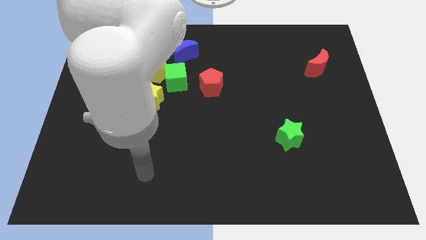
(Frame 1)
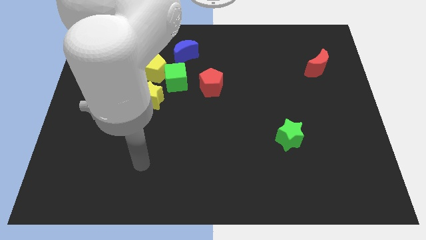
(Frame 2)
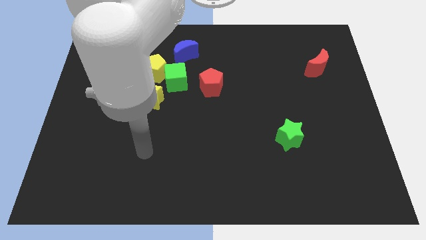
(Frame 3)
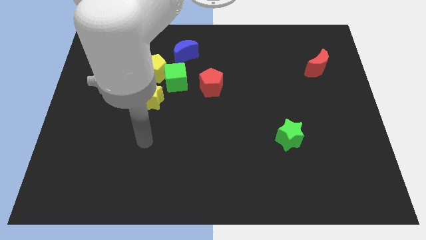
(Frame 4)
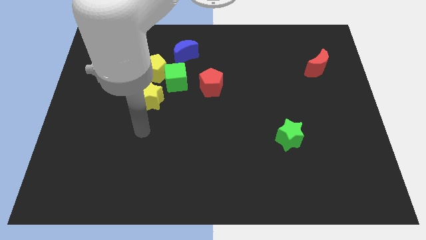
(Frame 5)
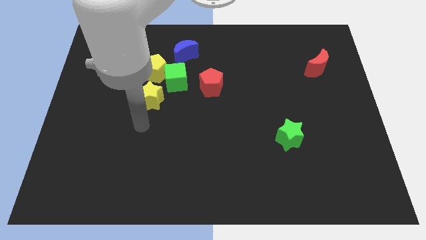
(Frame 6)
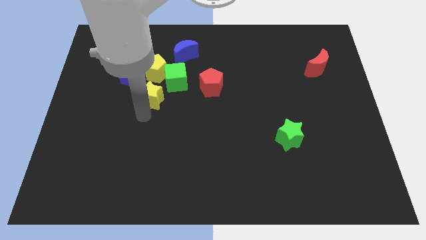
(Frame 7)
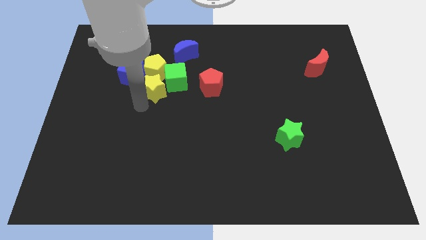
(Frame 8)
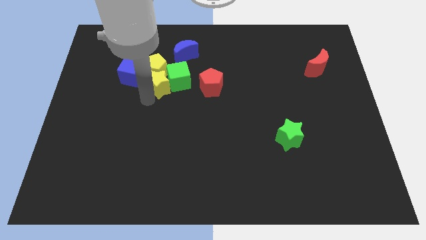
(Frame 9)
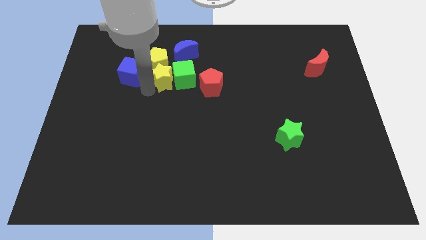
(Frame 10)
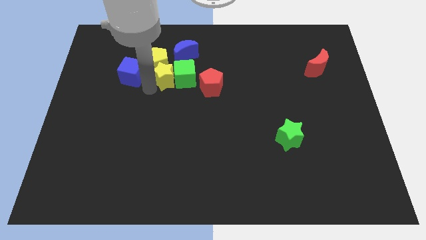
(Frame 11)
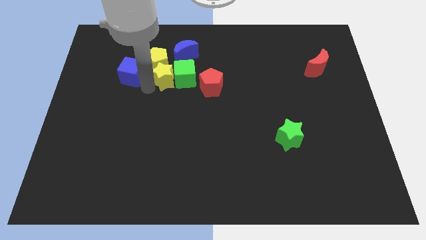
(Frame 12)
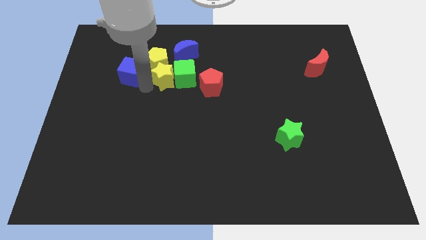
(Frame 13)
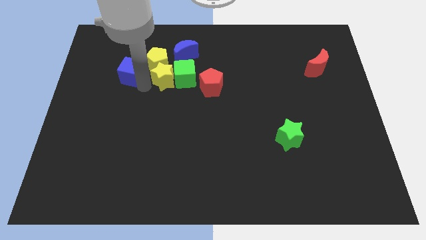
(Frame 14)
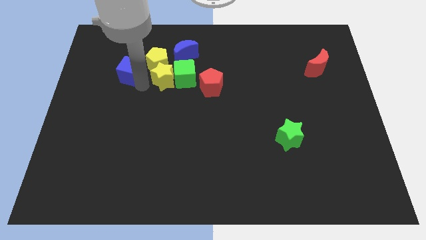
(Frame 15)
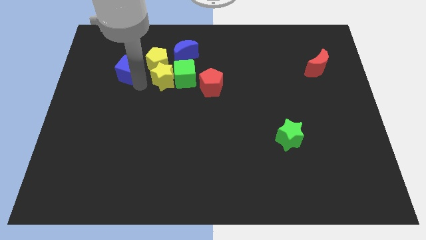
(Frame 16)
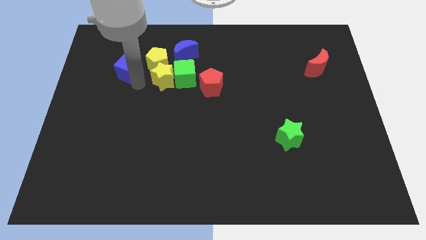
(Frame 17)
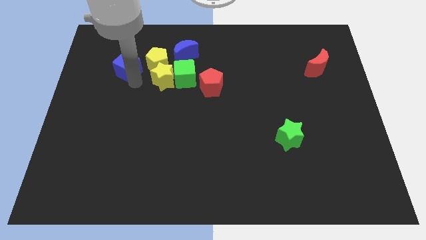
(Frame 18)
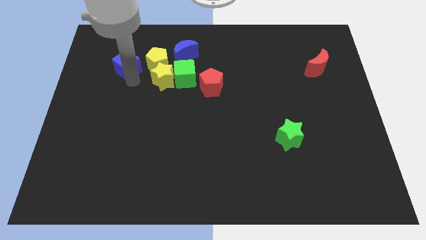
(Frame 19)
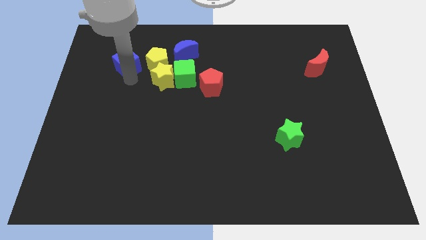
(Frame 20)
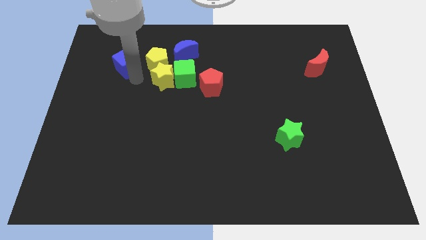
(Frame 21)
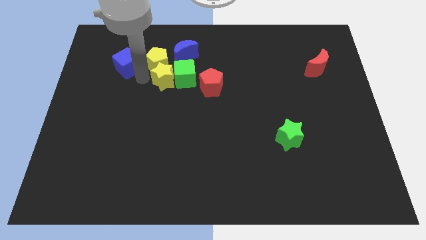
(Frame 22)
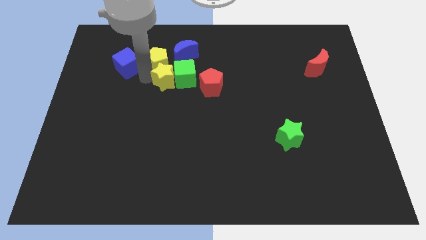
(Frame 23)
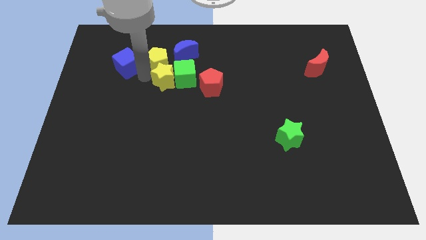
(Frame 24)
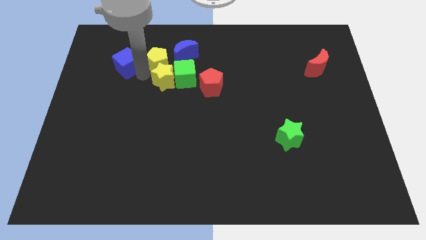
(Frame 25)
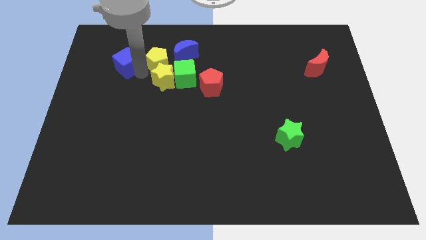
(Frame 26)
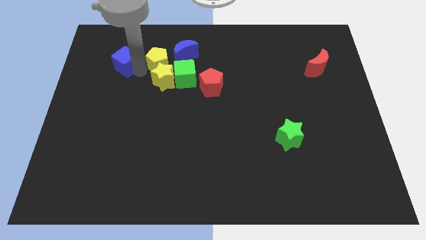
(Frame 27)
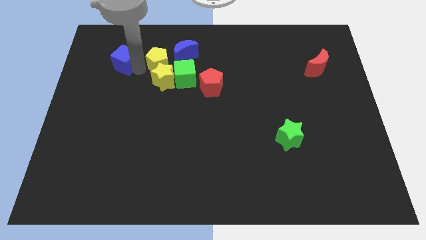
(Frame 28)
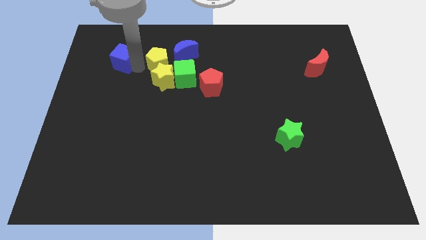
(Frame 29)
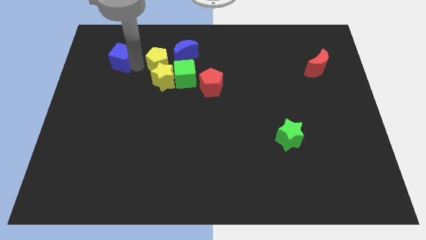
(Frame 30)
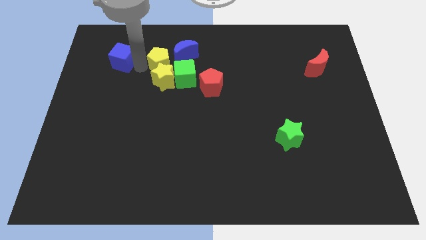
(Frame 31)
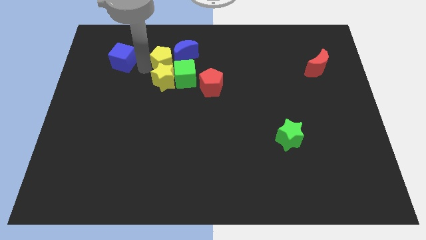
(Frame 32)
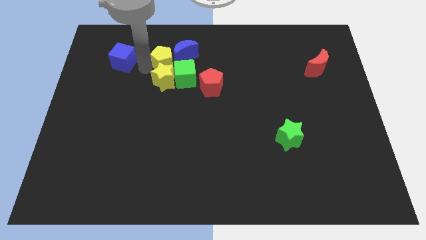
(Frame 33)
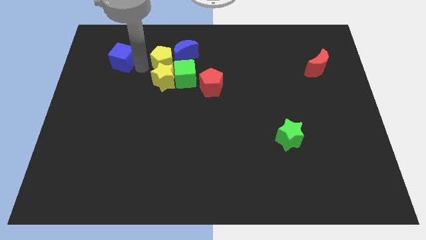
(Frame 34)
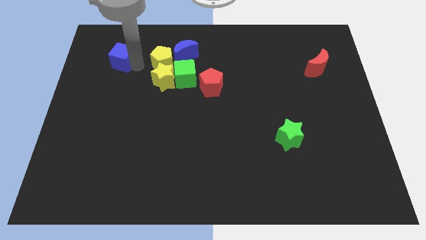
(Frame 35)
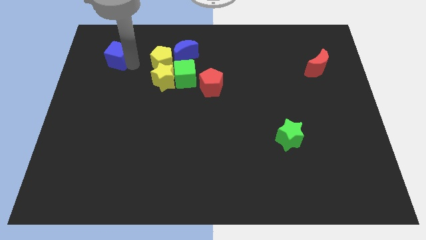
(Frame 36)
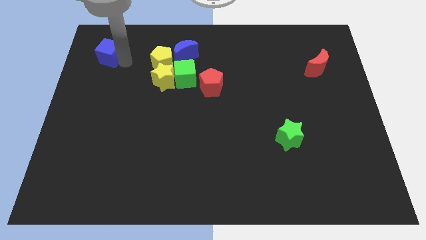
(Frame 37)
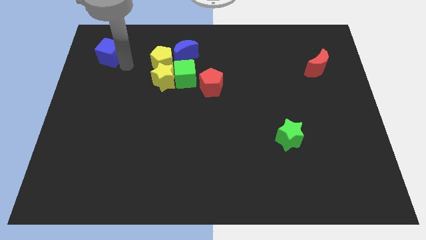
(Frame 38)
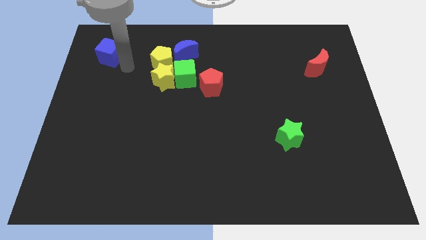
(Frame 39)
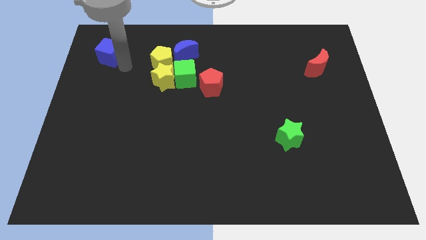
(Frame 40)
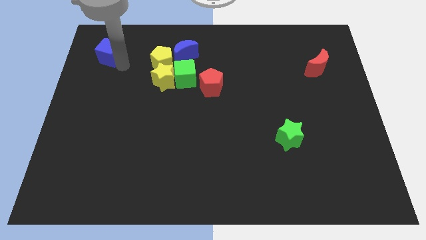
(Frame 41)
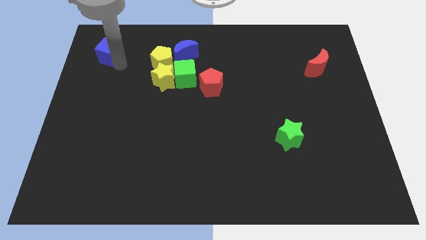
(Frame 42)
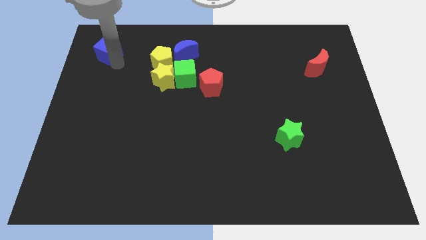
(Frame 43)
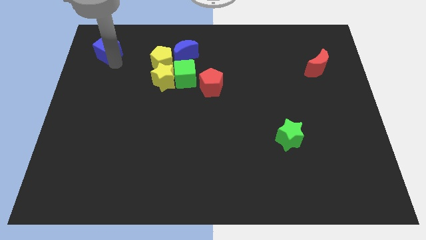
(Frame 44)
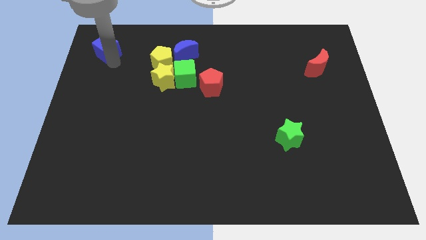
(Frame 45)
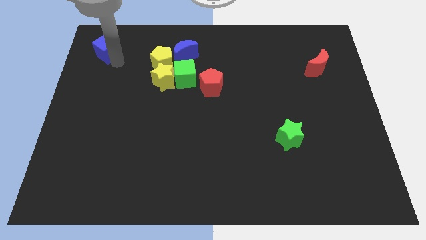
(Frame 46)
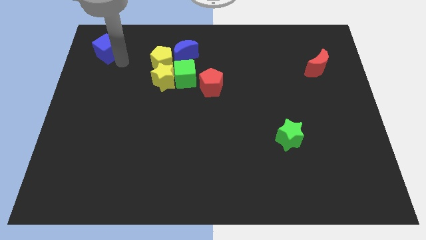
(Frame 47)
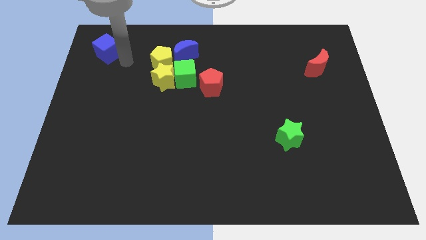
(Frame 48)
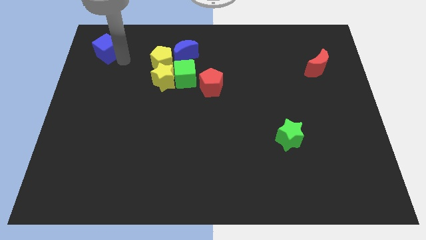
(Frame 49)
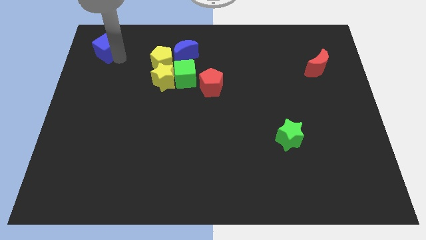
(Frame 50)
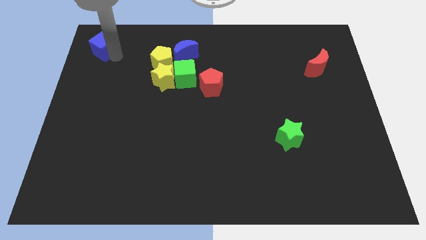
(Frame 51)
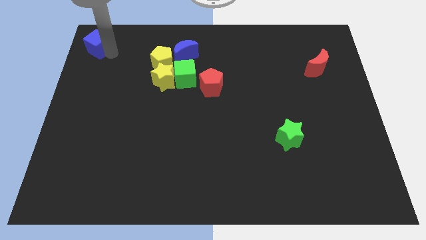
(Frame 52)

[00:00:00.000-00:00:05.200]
push the blue cube to the top left of the board

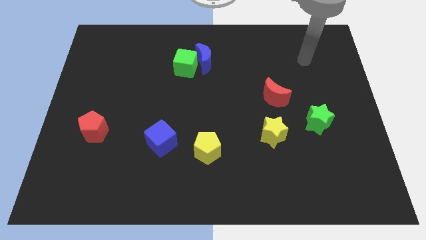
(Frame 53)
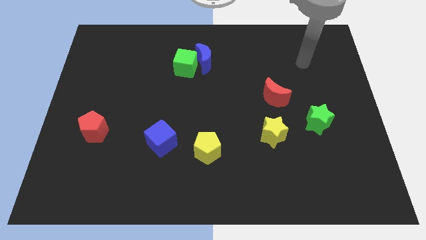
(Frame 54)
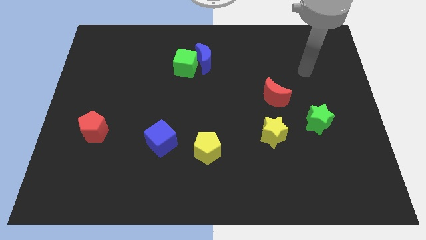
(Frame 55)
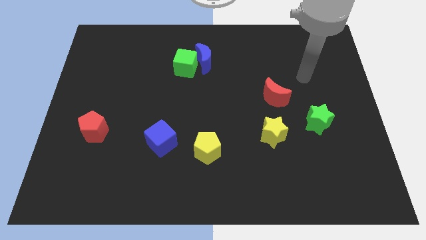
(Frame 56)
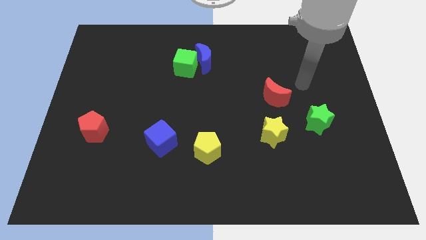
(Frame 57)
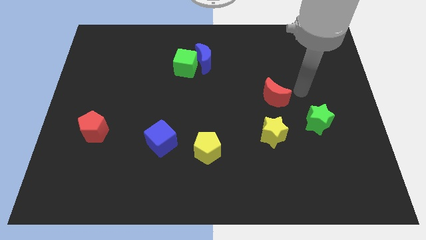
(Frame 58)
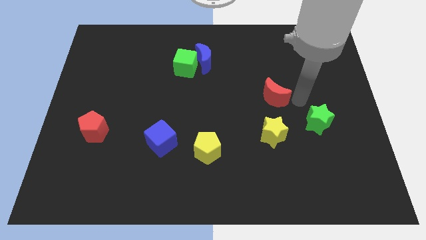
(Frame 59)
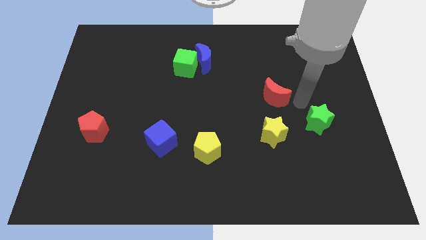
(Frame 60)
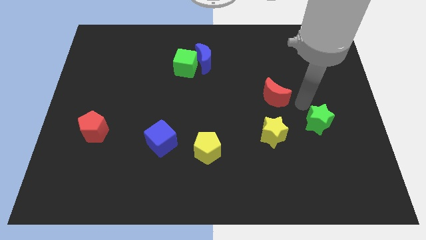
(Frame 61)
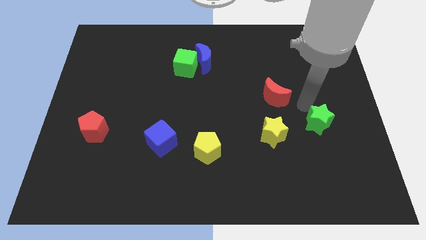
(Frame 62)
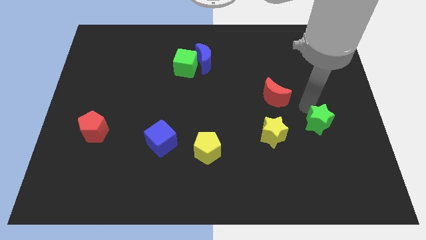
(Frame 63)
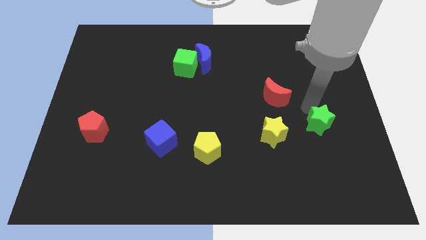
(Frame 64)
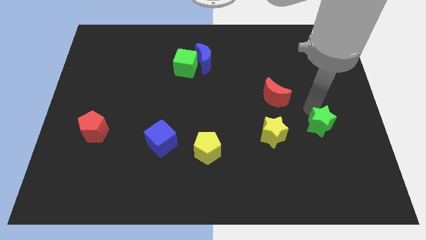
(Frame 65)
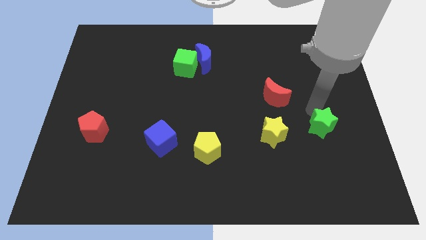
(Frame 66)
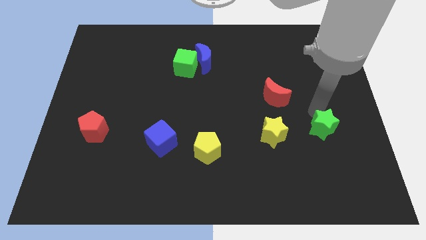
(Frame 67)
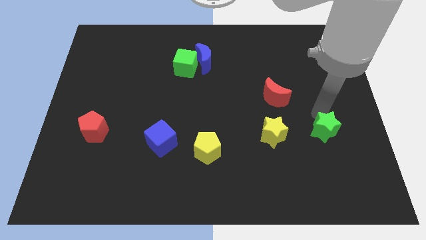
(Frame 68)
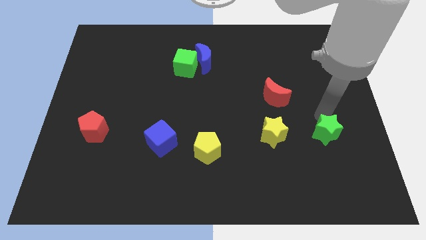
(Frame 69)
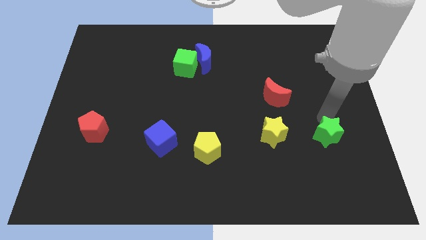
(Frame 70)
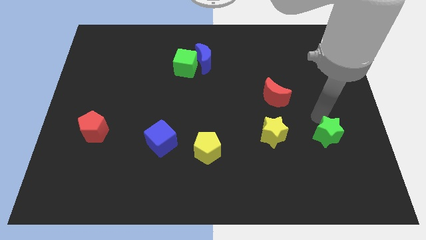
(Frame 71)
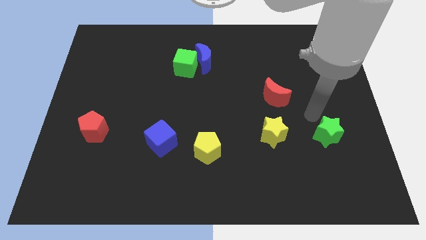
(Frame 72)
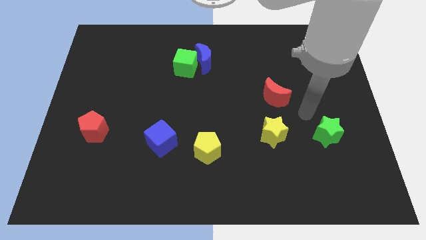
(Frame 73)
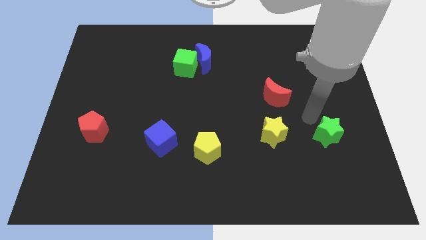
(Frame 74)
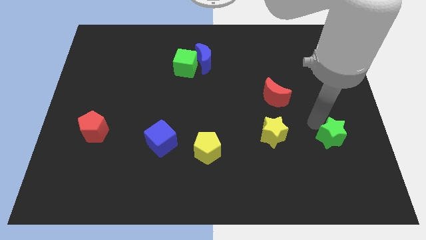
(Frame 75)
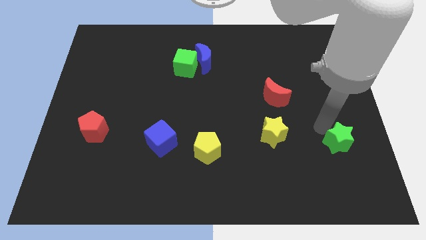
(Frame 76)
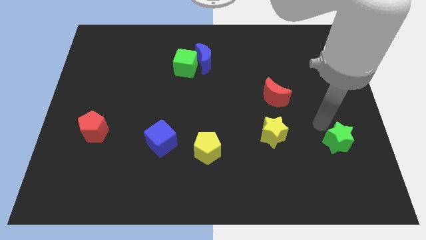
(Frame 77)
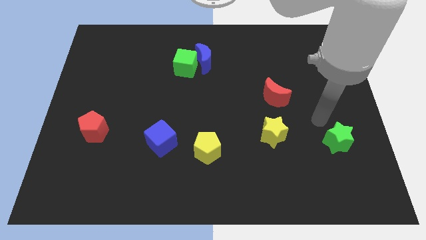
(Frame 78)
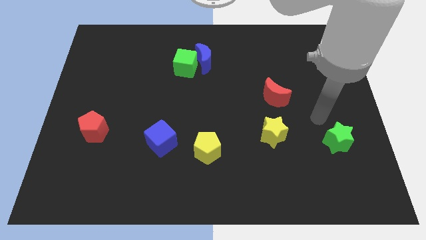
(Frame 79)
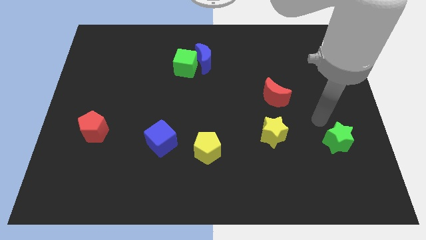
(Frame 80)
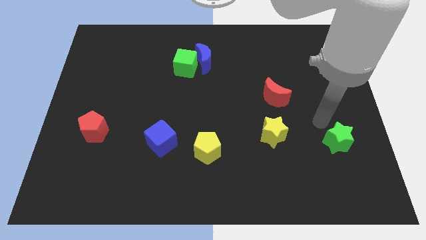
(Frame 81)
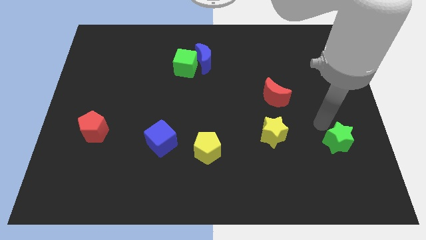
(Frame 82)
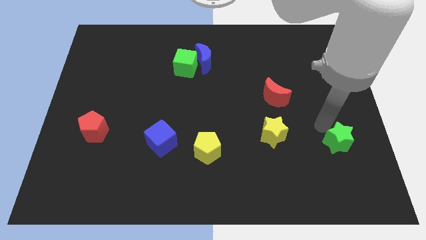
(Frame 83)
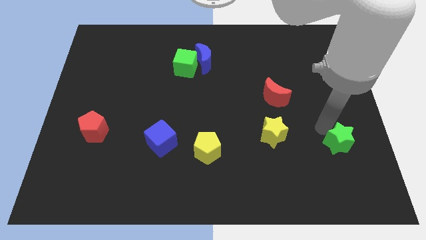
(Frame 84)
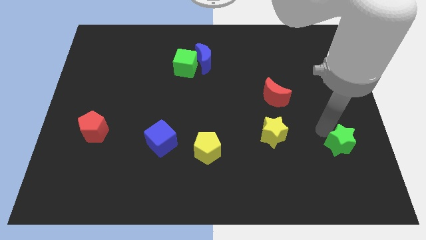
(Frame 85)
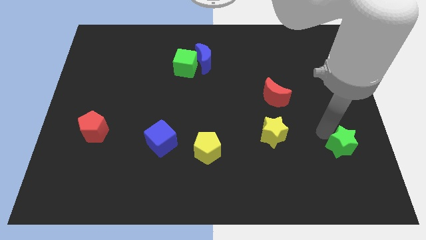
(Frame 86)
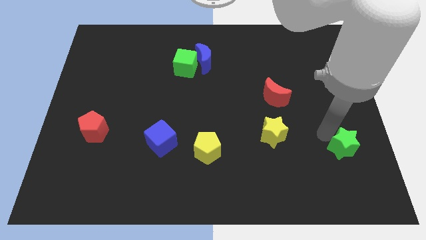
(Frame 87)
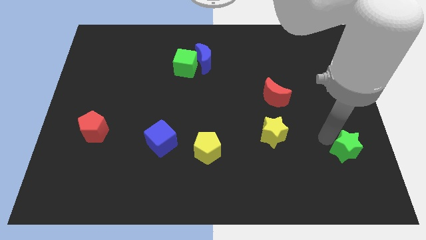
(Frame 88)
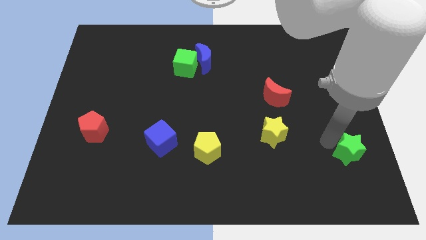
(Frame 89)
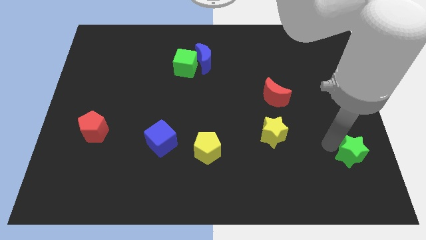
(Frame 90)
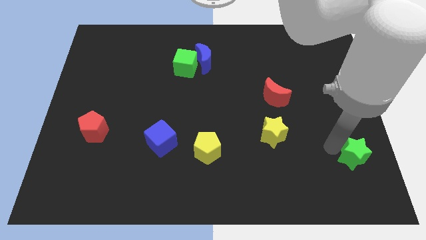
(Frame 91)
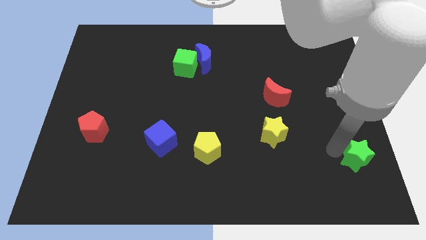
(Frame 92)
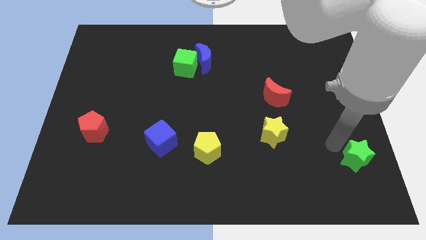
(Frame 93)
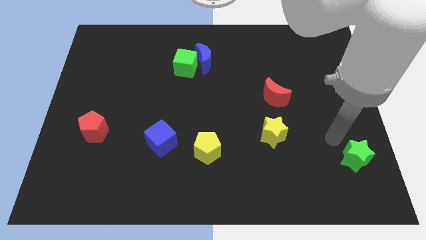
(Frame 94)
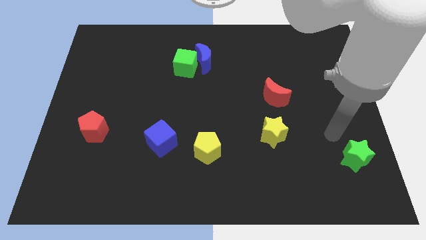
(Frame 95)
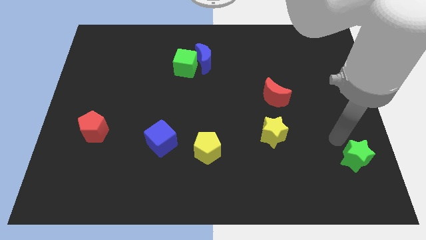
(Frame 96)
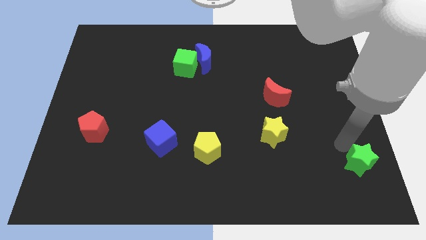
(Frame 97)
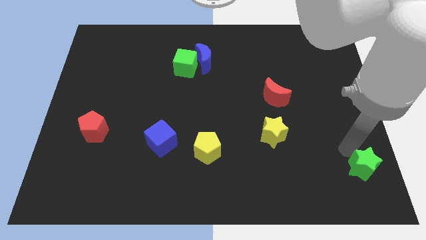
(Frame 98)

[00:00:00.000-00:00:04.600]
slide the green star to the bottom right corner
